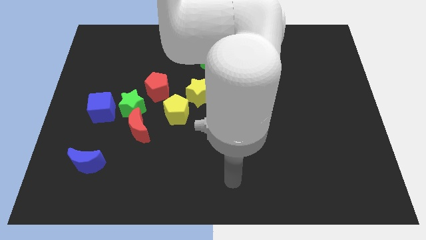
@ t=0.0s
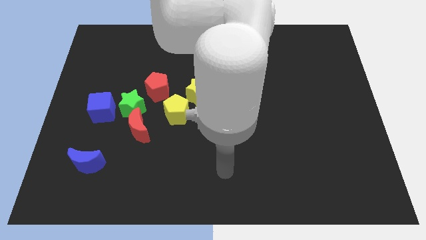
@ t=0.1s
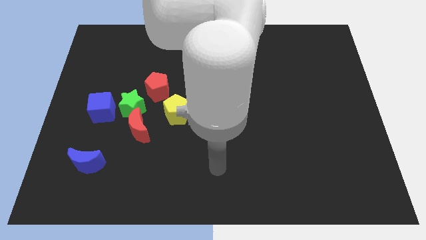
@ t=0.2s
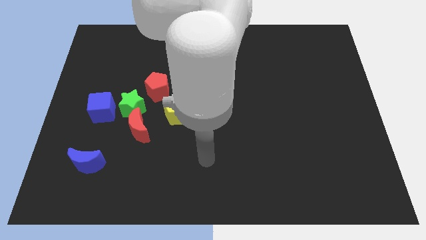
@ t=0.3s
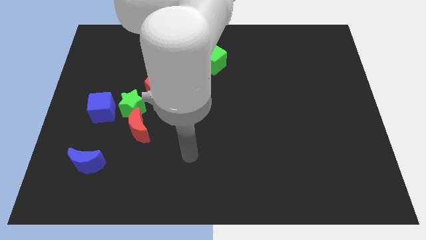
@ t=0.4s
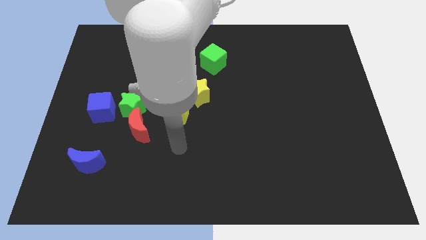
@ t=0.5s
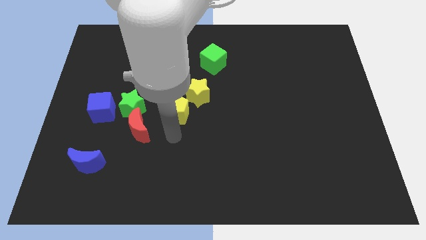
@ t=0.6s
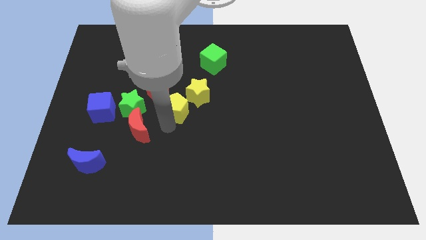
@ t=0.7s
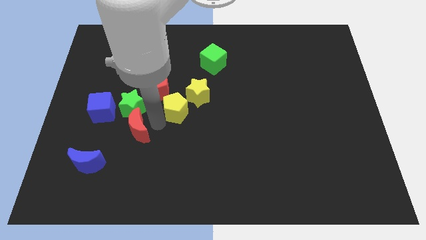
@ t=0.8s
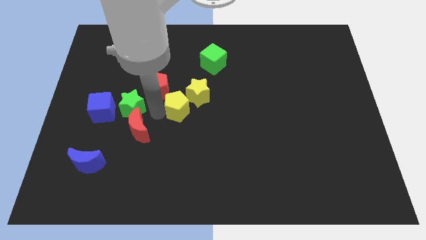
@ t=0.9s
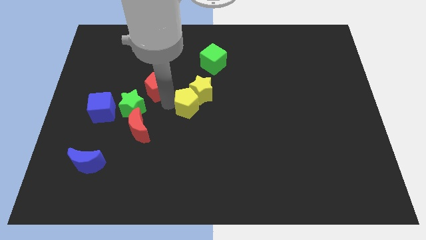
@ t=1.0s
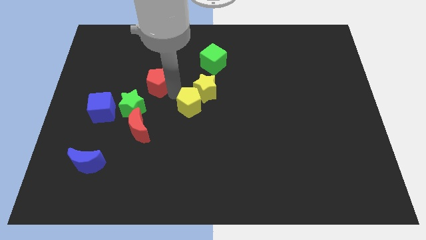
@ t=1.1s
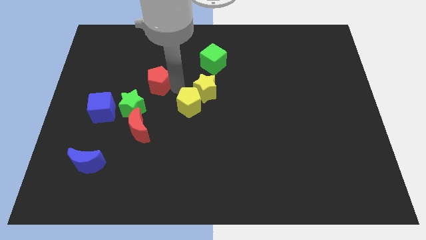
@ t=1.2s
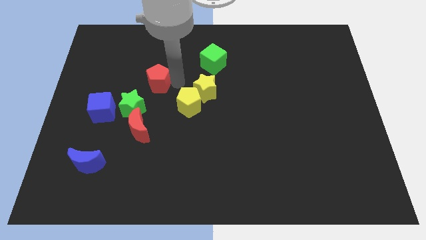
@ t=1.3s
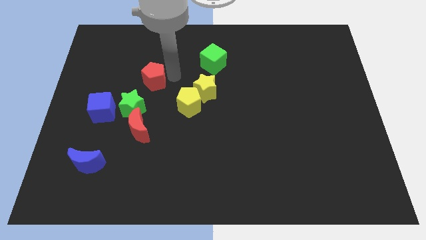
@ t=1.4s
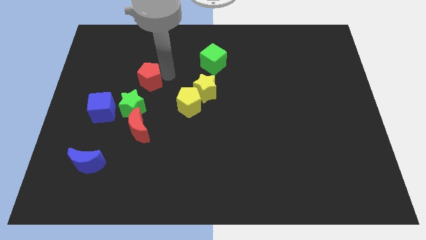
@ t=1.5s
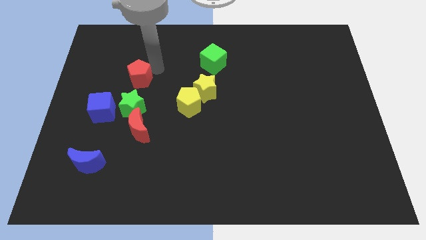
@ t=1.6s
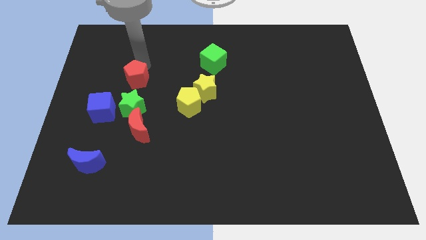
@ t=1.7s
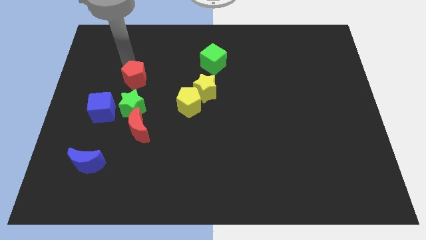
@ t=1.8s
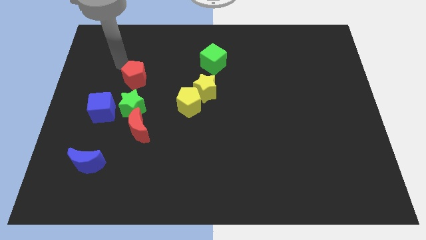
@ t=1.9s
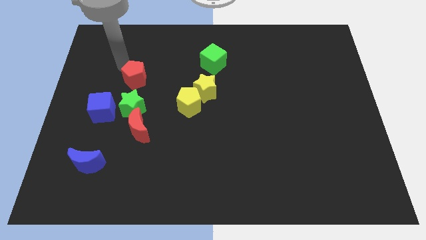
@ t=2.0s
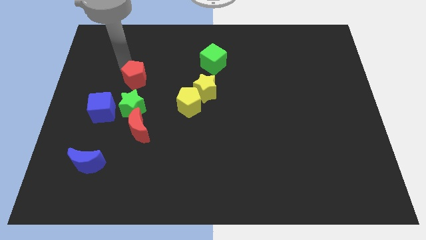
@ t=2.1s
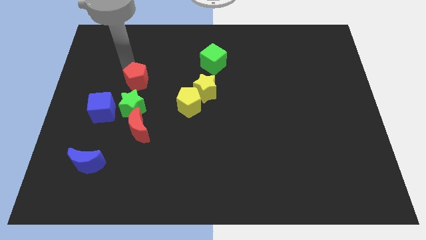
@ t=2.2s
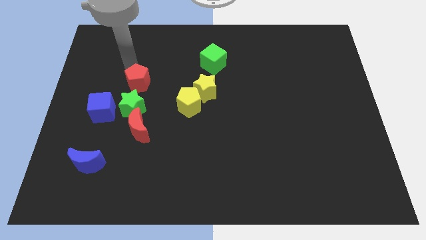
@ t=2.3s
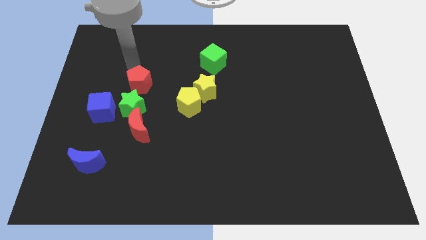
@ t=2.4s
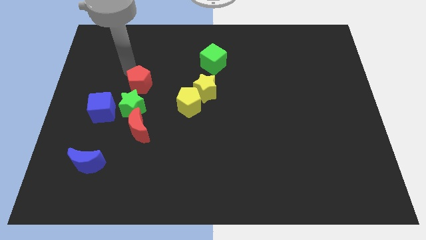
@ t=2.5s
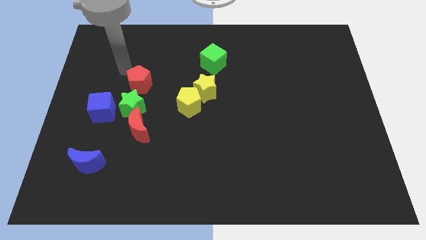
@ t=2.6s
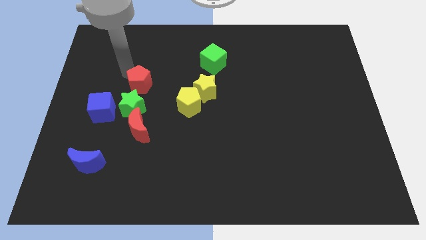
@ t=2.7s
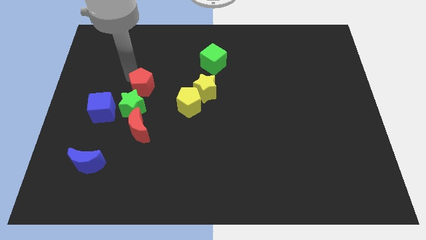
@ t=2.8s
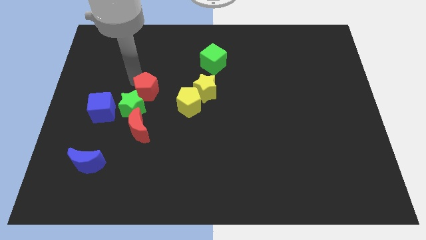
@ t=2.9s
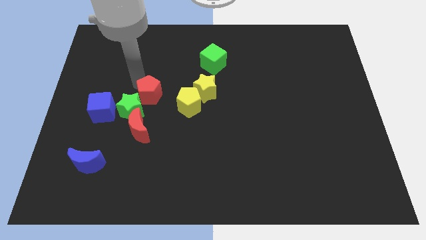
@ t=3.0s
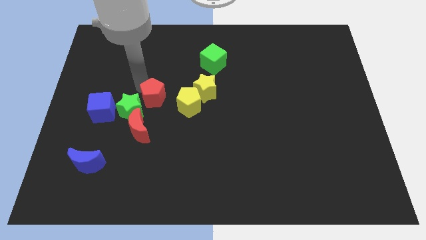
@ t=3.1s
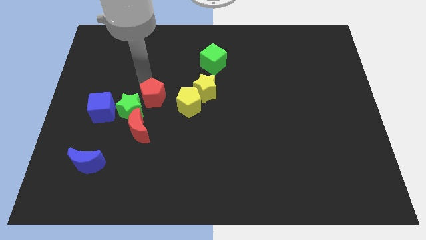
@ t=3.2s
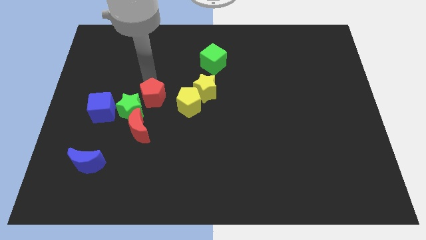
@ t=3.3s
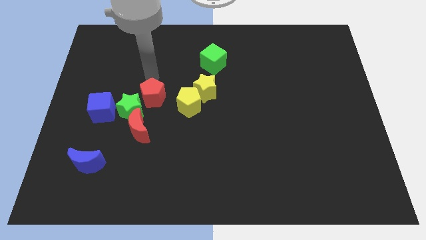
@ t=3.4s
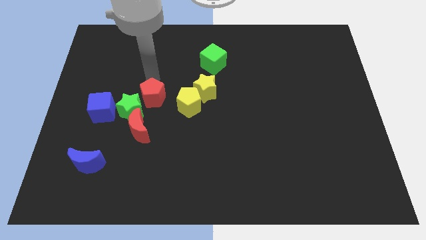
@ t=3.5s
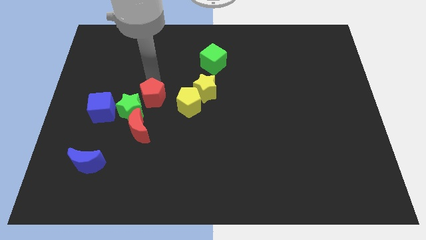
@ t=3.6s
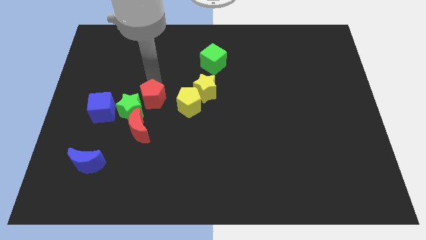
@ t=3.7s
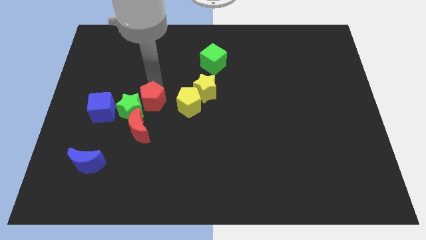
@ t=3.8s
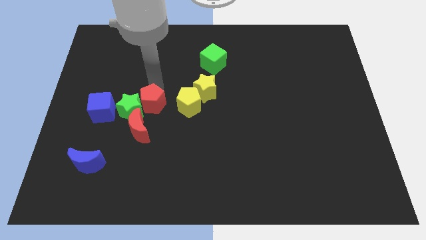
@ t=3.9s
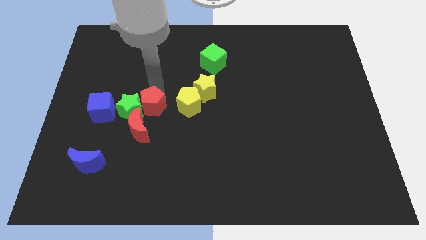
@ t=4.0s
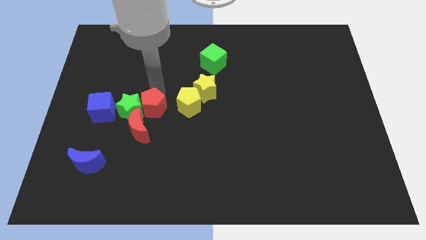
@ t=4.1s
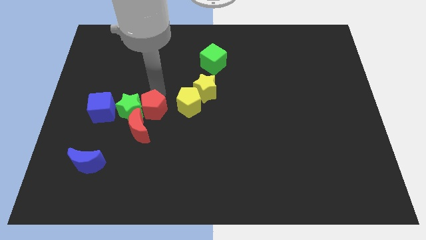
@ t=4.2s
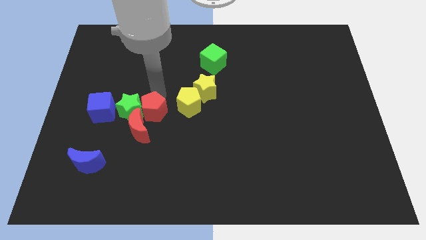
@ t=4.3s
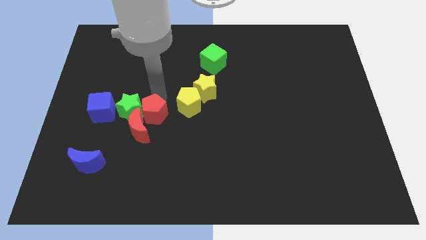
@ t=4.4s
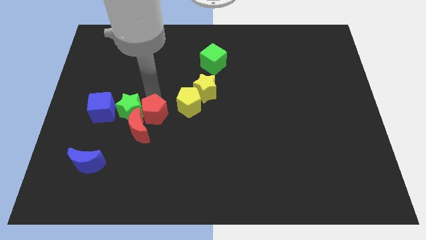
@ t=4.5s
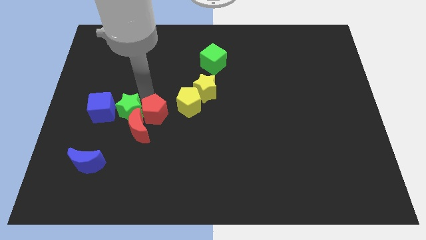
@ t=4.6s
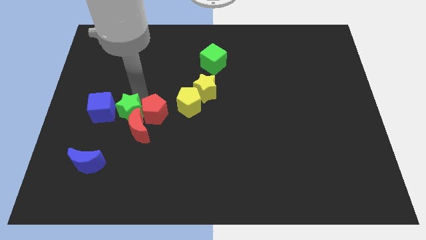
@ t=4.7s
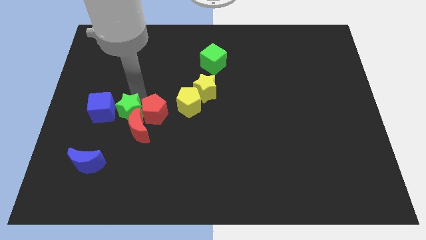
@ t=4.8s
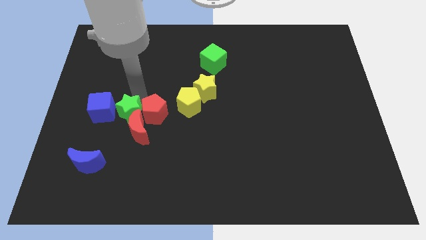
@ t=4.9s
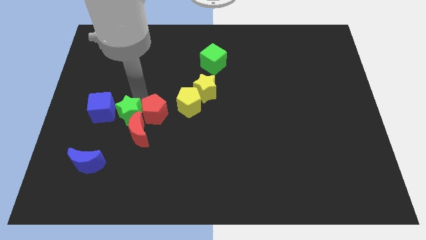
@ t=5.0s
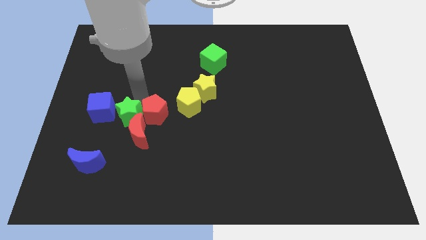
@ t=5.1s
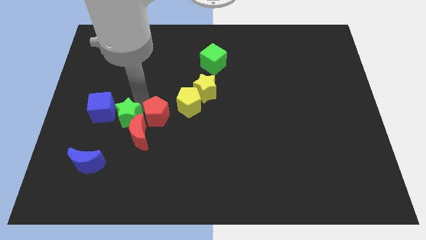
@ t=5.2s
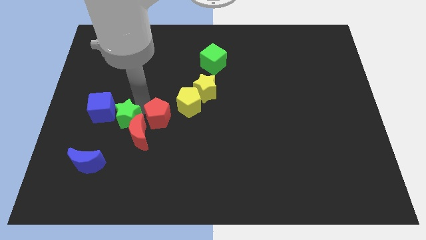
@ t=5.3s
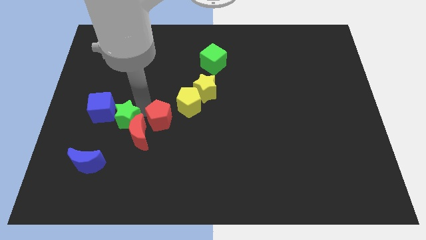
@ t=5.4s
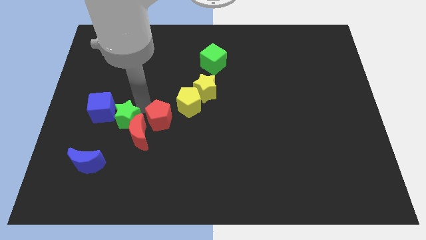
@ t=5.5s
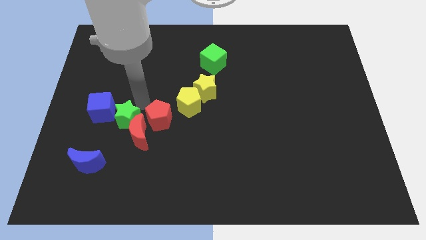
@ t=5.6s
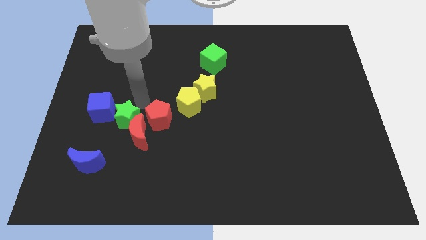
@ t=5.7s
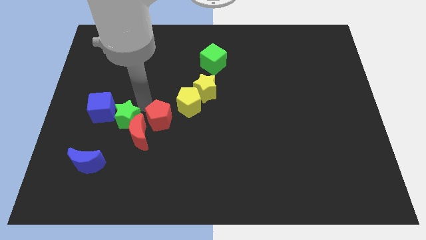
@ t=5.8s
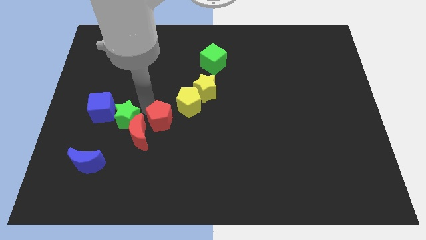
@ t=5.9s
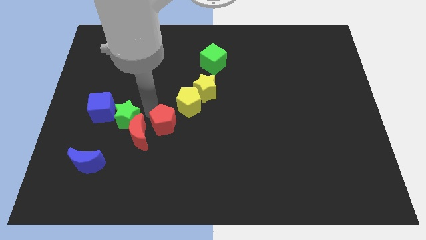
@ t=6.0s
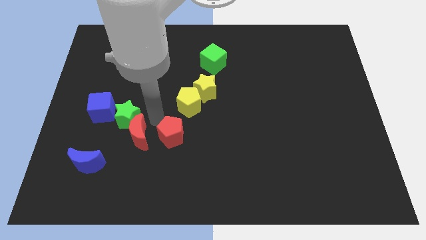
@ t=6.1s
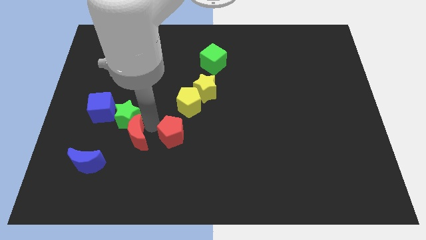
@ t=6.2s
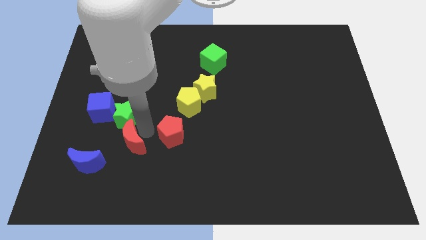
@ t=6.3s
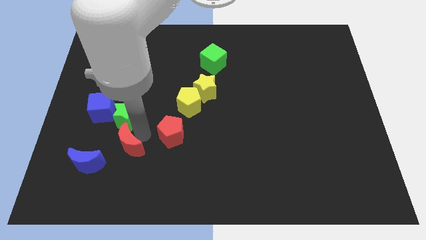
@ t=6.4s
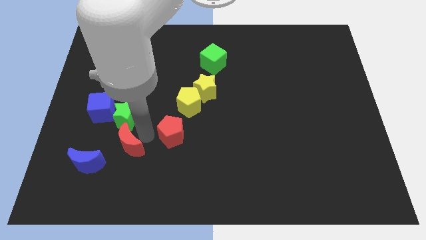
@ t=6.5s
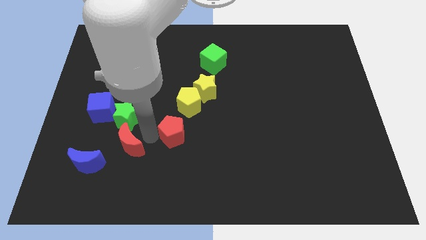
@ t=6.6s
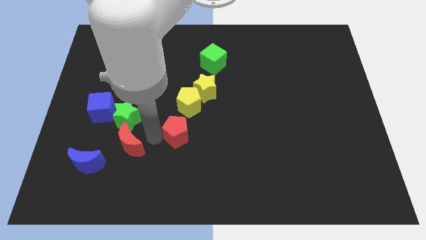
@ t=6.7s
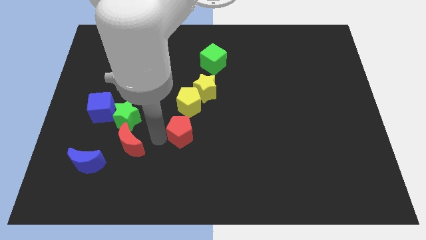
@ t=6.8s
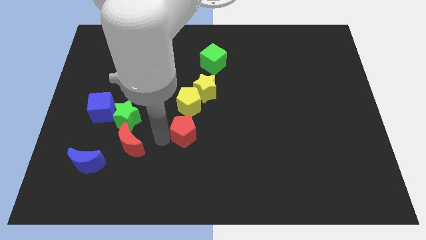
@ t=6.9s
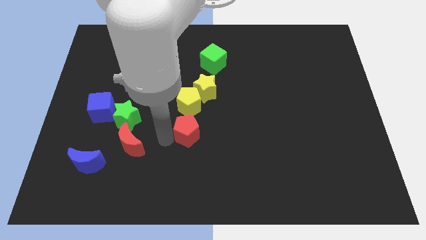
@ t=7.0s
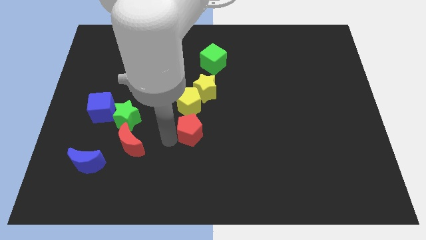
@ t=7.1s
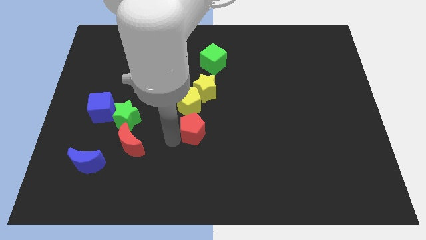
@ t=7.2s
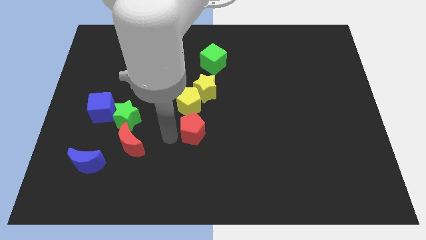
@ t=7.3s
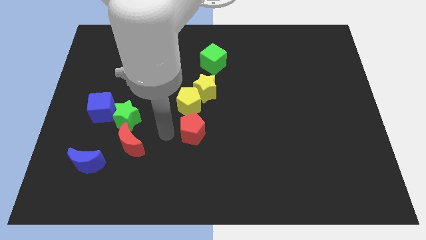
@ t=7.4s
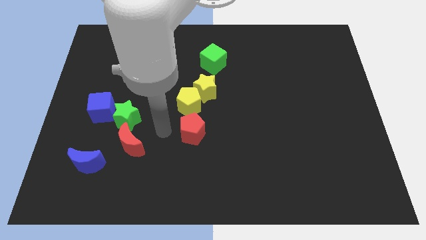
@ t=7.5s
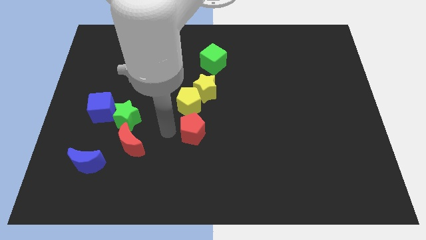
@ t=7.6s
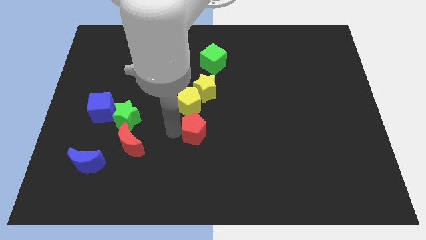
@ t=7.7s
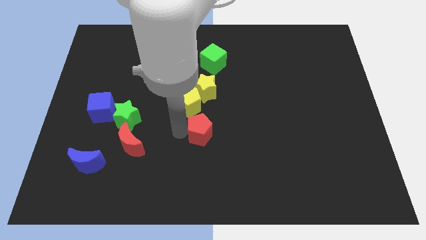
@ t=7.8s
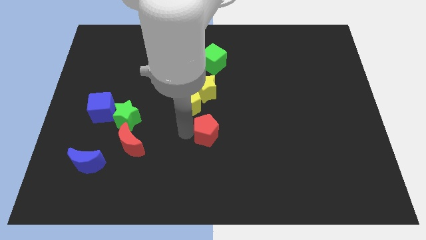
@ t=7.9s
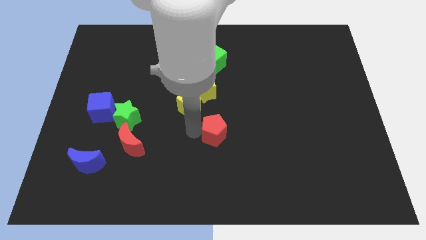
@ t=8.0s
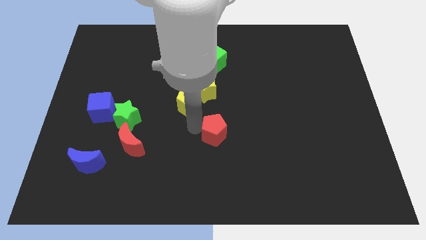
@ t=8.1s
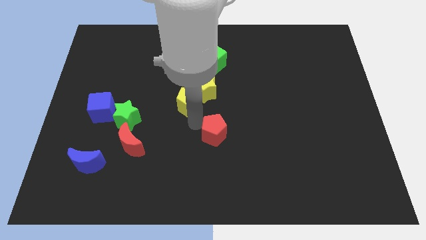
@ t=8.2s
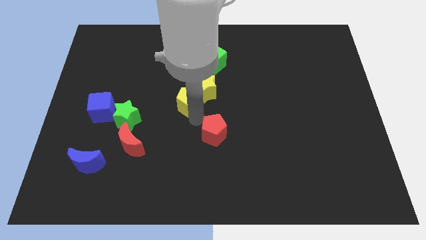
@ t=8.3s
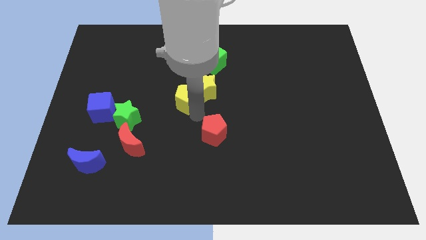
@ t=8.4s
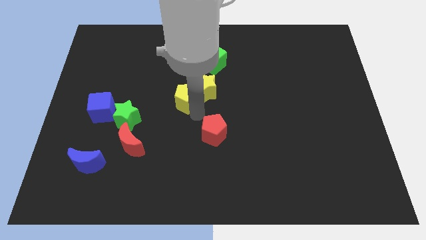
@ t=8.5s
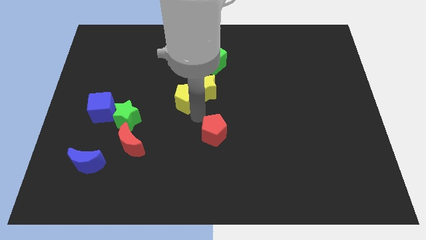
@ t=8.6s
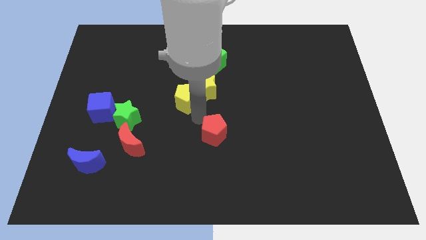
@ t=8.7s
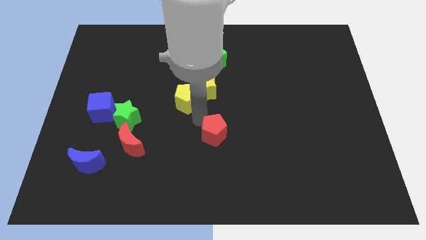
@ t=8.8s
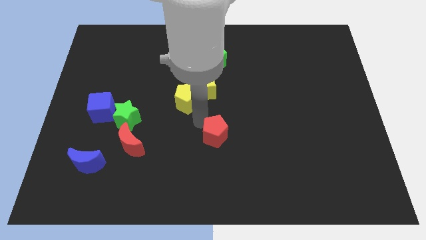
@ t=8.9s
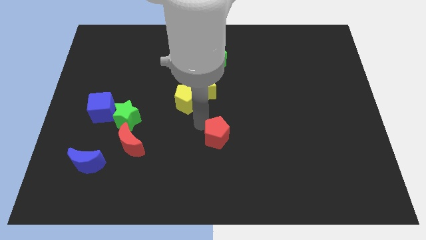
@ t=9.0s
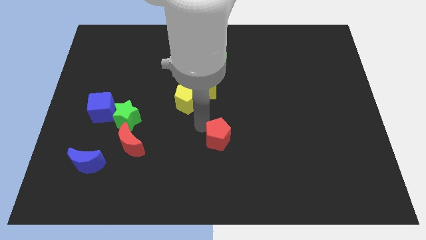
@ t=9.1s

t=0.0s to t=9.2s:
push the red pentagon down and then right
